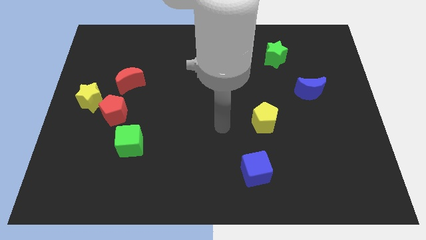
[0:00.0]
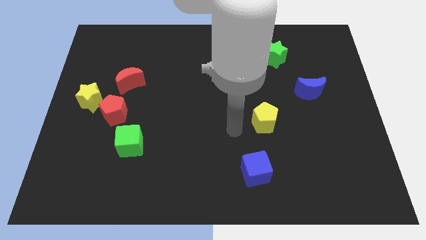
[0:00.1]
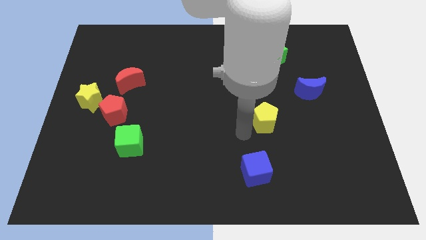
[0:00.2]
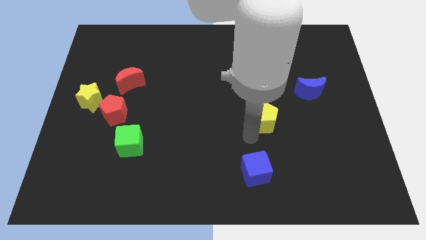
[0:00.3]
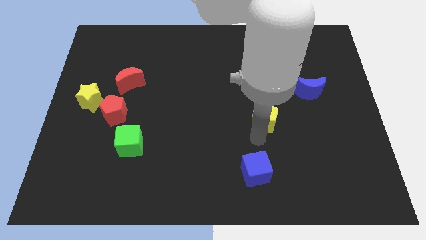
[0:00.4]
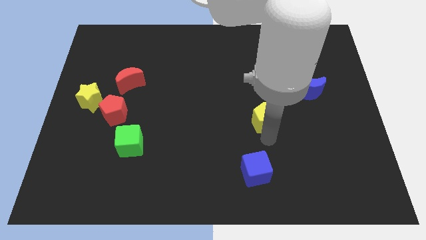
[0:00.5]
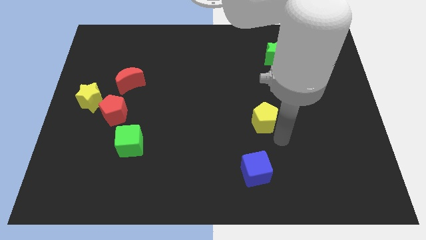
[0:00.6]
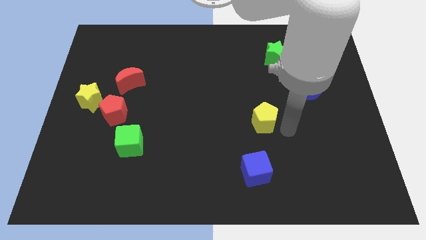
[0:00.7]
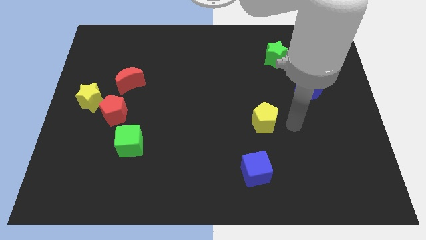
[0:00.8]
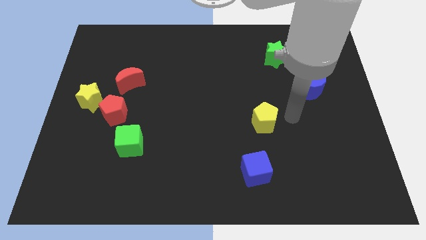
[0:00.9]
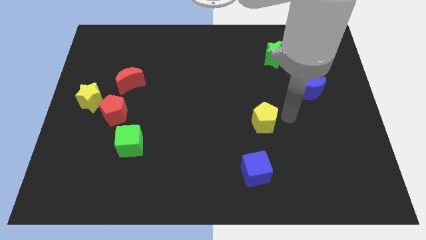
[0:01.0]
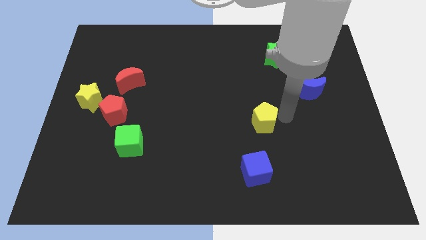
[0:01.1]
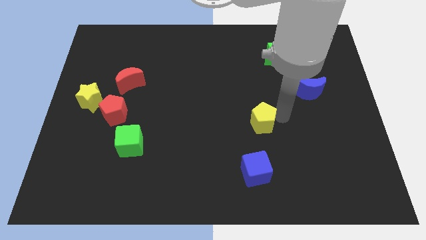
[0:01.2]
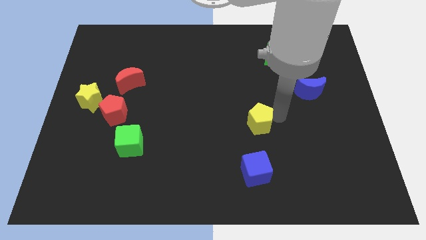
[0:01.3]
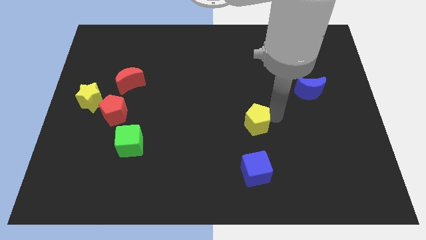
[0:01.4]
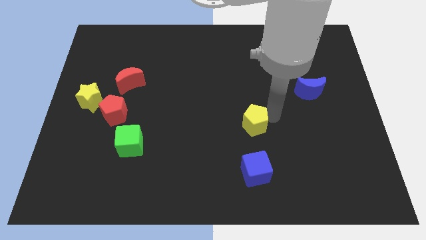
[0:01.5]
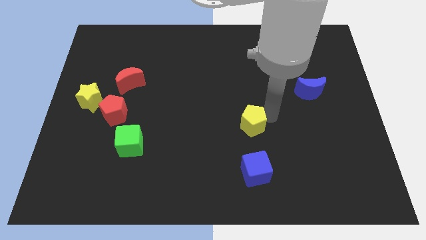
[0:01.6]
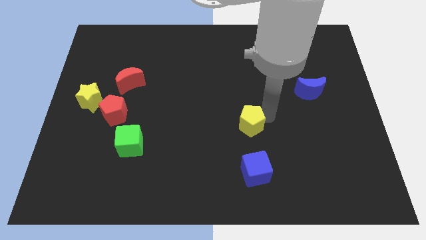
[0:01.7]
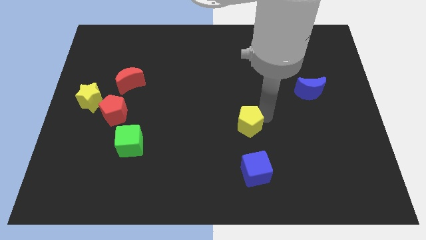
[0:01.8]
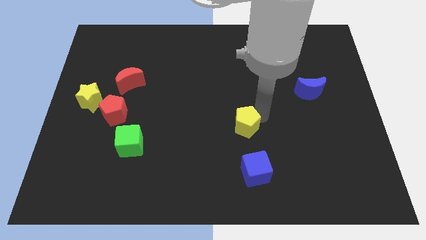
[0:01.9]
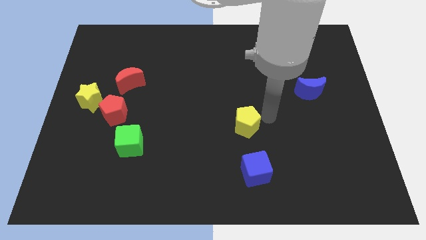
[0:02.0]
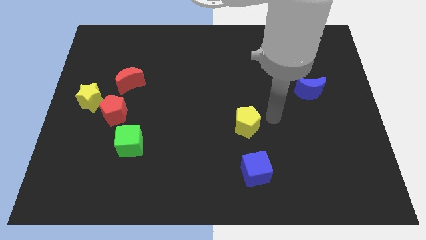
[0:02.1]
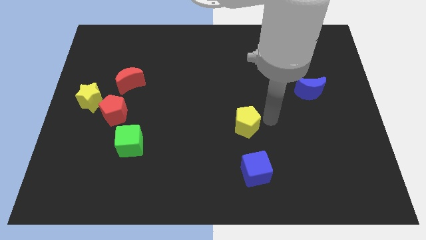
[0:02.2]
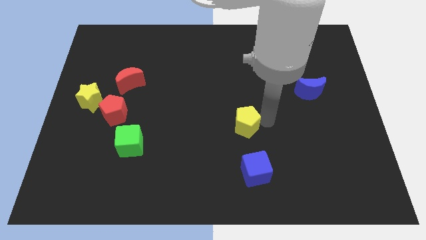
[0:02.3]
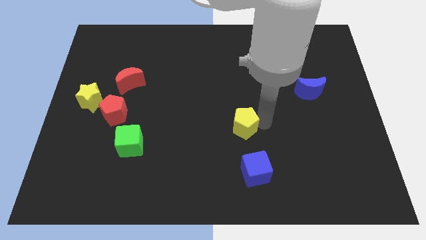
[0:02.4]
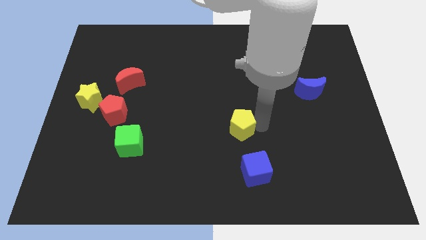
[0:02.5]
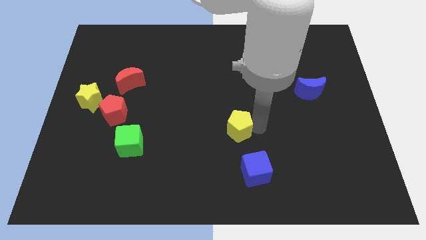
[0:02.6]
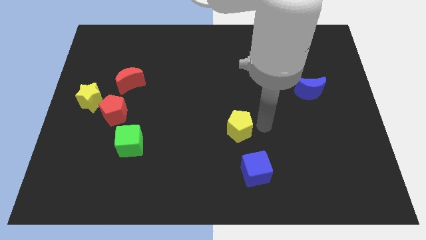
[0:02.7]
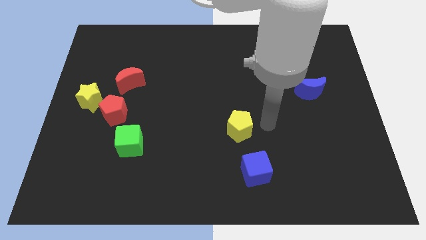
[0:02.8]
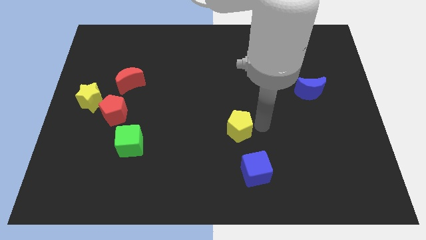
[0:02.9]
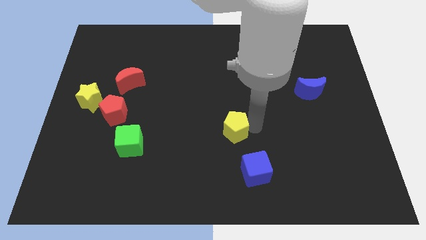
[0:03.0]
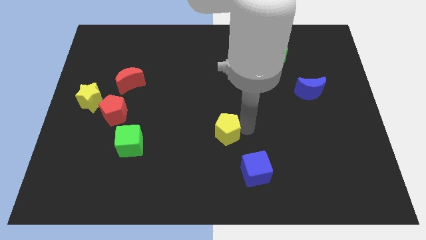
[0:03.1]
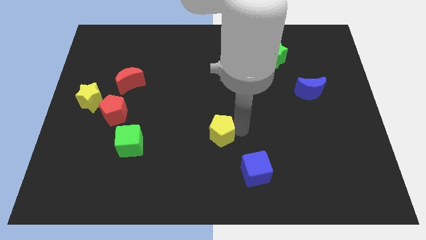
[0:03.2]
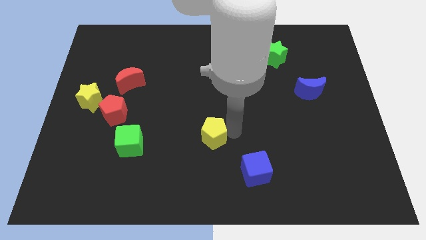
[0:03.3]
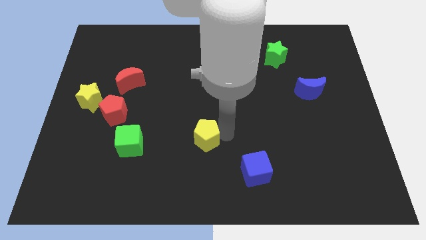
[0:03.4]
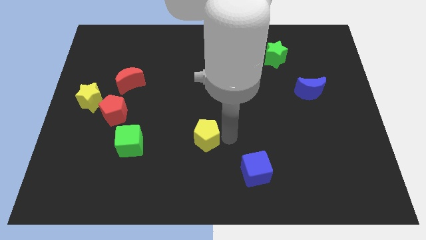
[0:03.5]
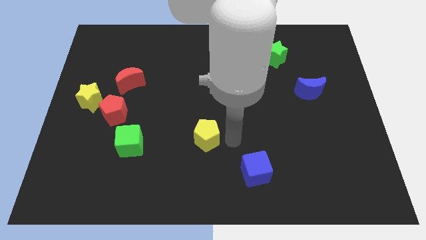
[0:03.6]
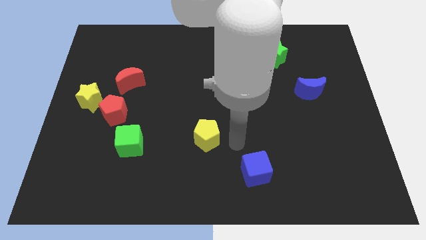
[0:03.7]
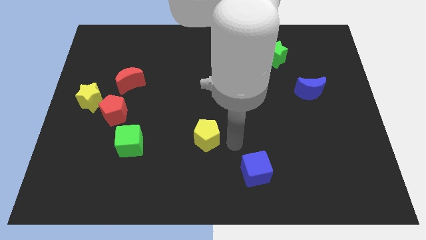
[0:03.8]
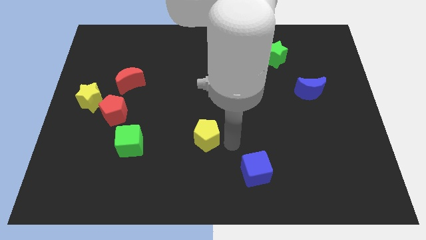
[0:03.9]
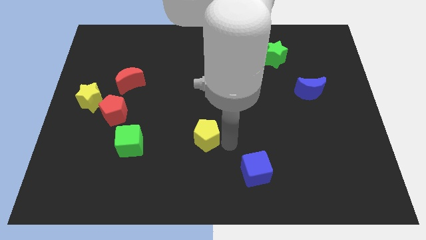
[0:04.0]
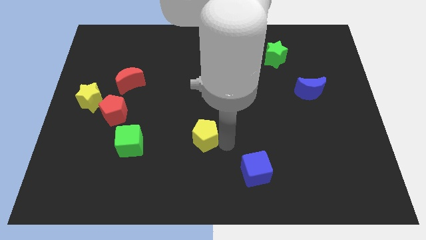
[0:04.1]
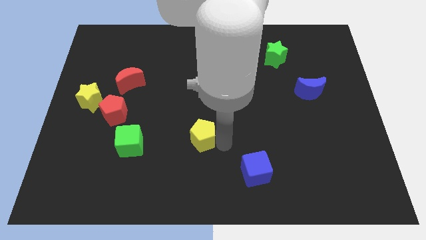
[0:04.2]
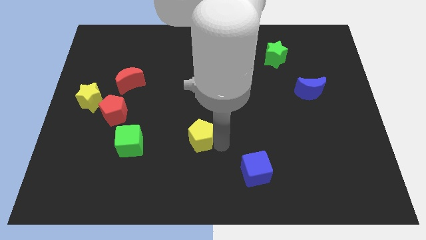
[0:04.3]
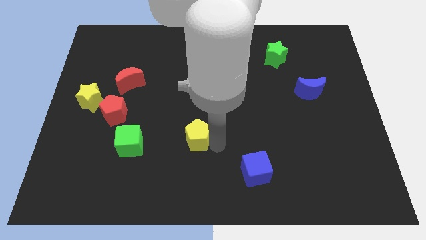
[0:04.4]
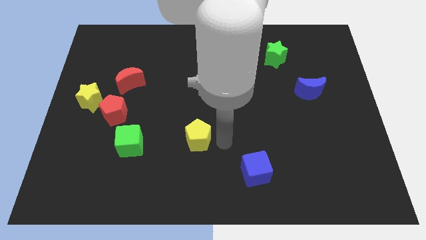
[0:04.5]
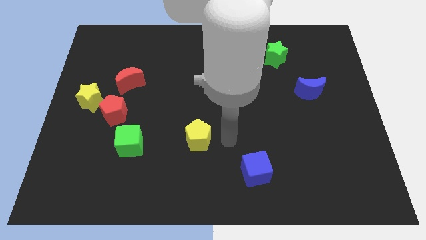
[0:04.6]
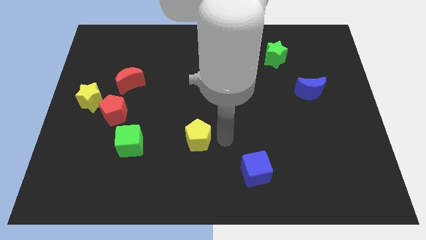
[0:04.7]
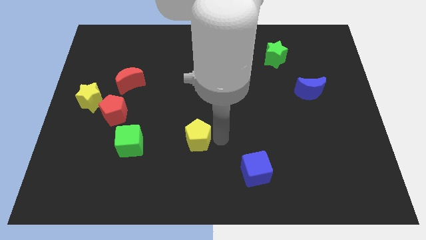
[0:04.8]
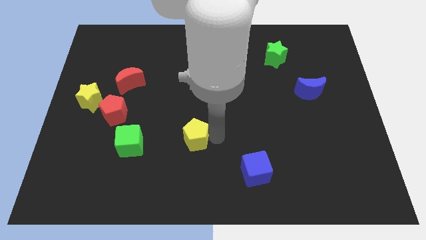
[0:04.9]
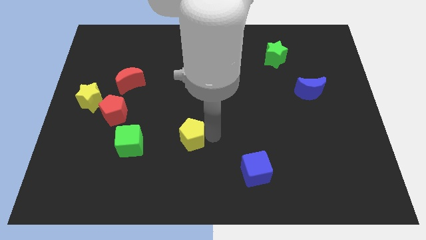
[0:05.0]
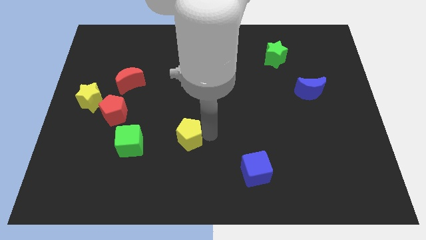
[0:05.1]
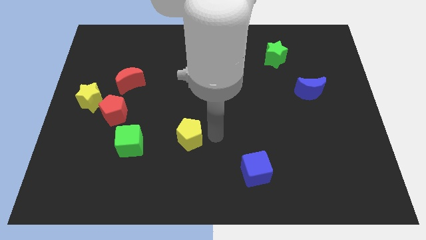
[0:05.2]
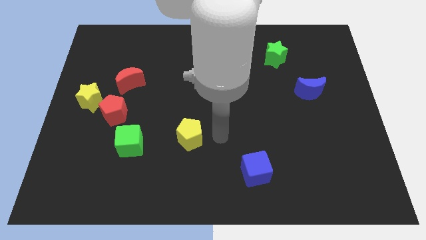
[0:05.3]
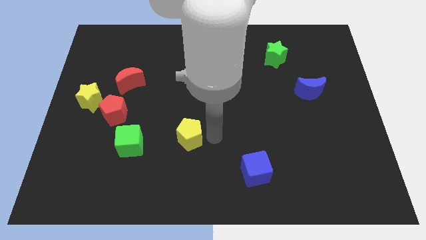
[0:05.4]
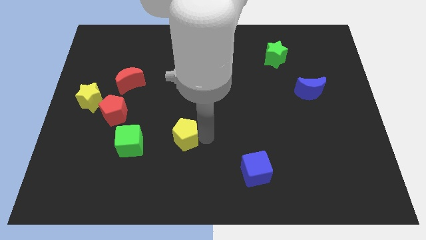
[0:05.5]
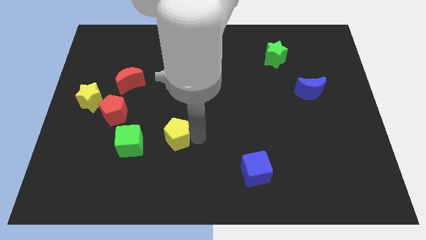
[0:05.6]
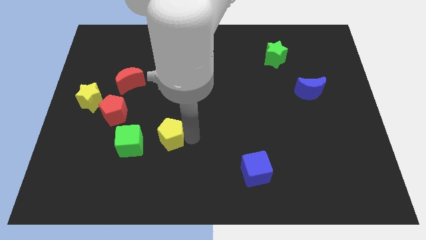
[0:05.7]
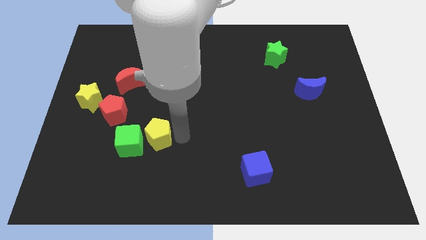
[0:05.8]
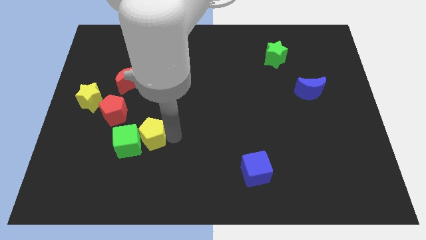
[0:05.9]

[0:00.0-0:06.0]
move the yellow pentagon to the green cube
